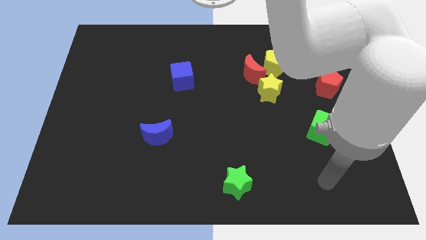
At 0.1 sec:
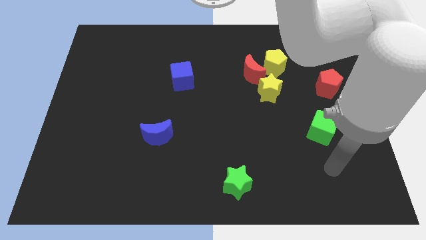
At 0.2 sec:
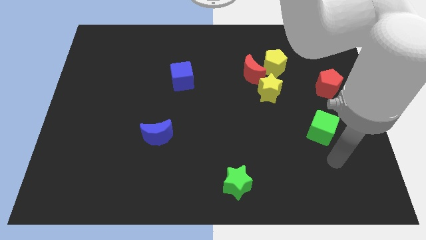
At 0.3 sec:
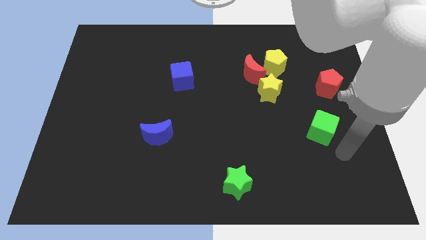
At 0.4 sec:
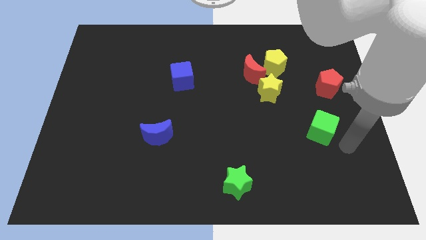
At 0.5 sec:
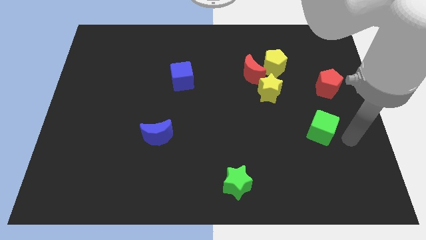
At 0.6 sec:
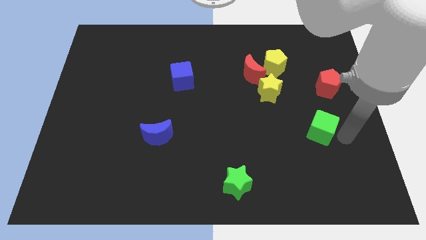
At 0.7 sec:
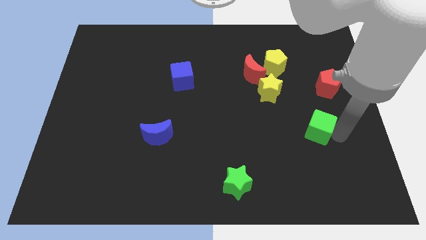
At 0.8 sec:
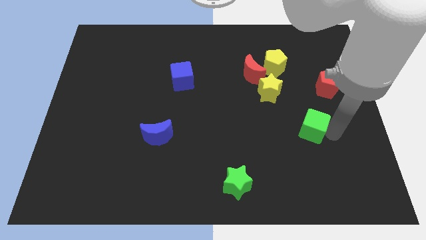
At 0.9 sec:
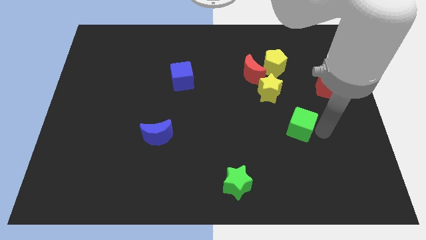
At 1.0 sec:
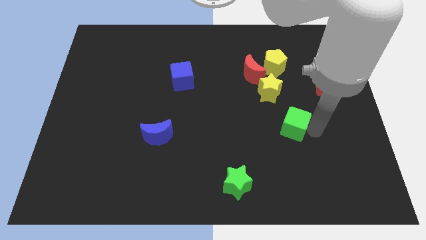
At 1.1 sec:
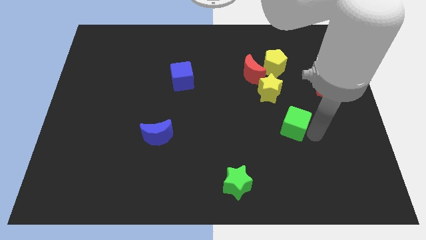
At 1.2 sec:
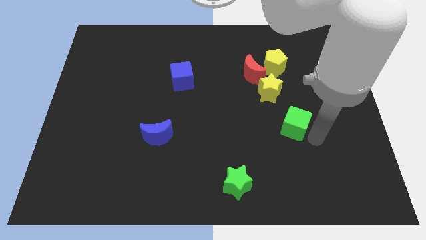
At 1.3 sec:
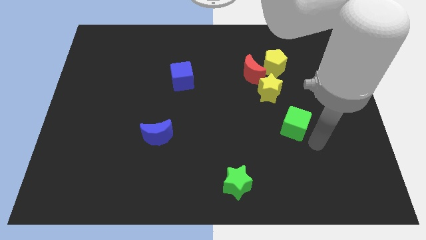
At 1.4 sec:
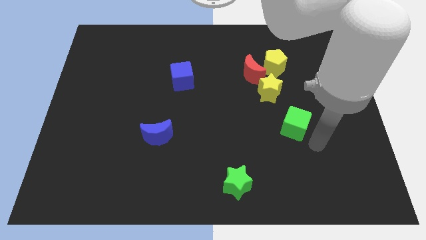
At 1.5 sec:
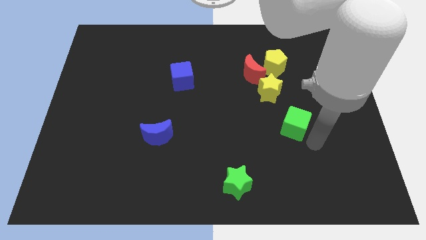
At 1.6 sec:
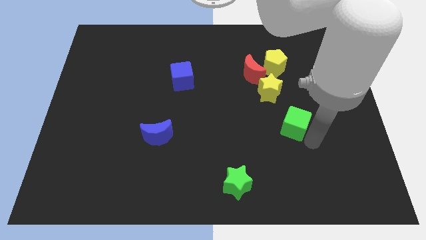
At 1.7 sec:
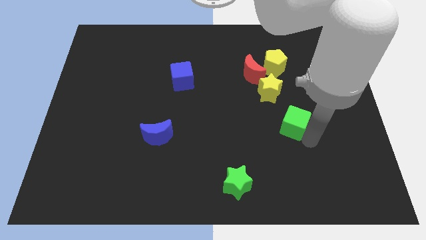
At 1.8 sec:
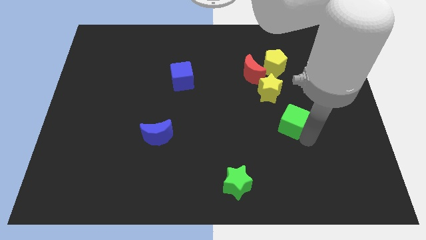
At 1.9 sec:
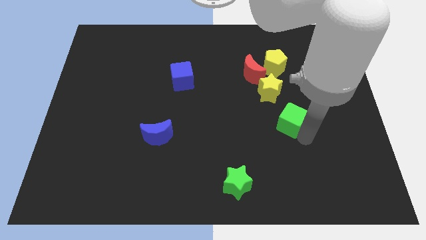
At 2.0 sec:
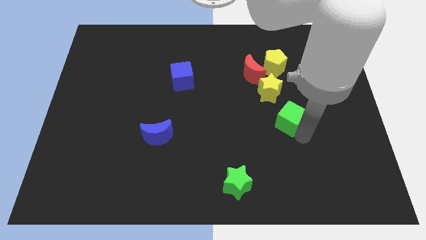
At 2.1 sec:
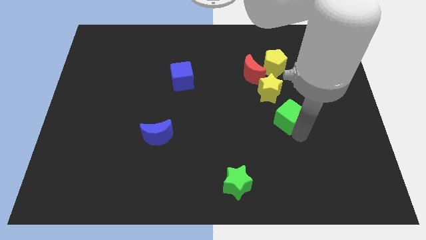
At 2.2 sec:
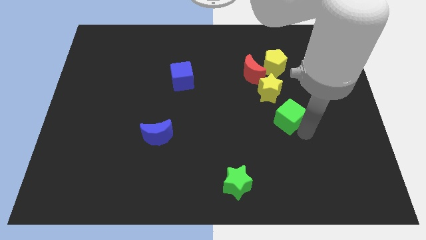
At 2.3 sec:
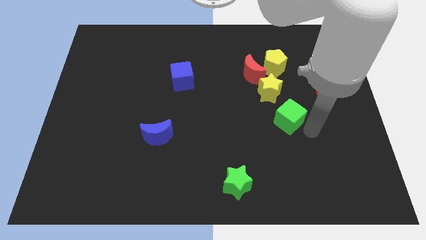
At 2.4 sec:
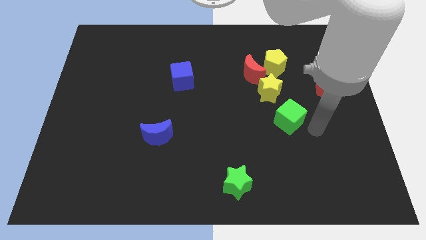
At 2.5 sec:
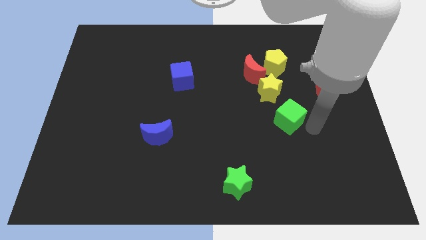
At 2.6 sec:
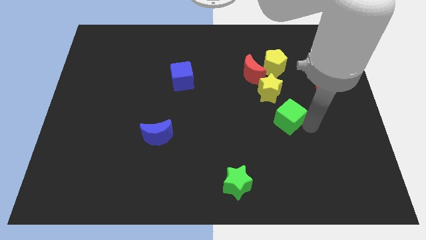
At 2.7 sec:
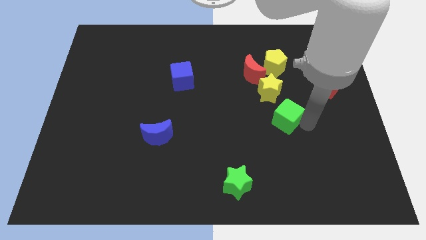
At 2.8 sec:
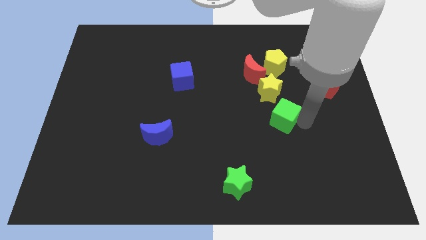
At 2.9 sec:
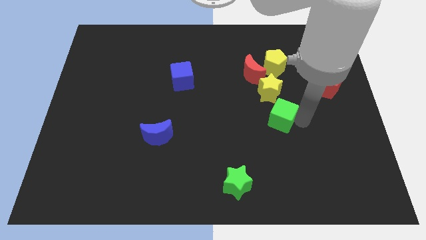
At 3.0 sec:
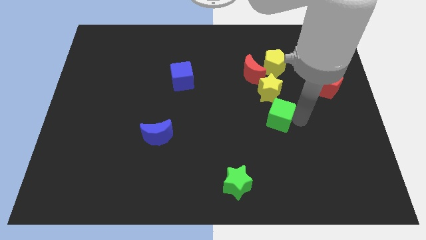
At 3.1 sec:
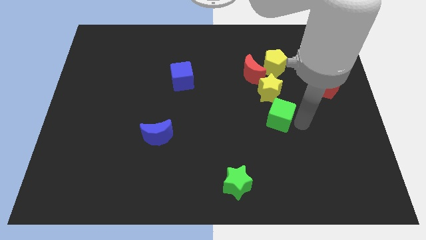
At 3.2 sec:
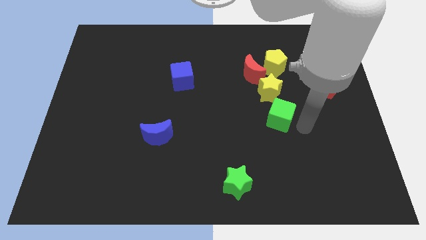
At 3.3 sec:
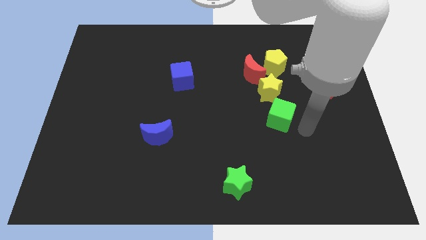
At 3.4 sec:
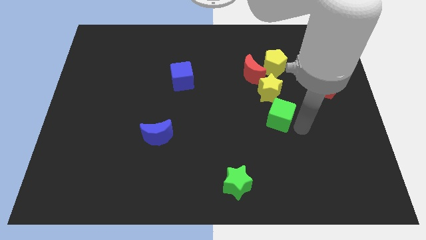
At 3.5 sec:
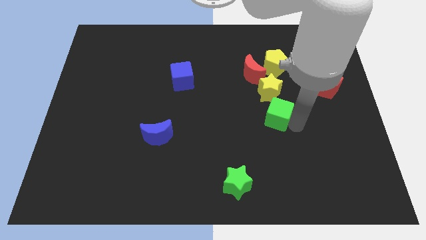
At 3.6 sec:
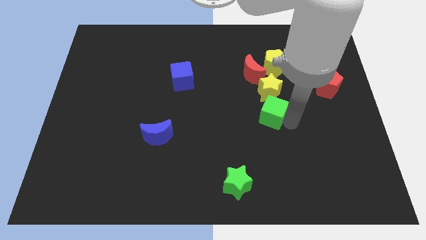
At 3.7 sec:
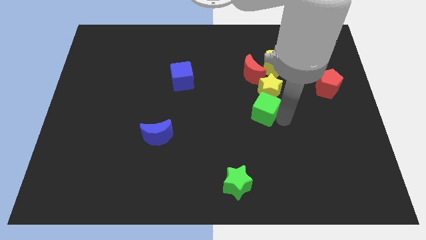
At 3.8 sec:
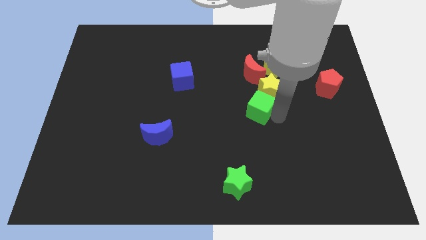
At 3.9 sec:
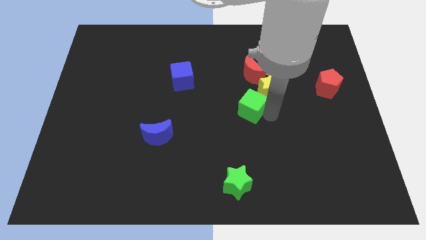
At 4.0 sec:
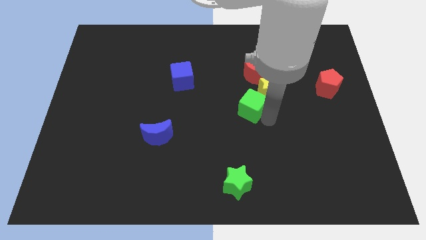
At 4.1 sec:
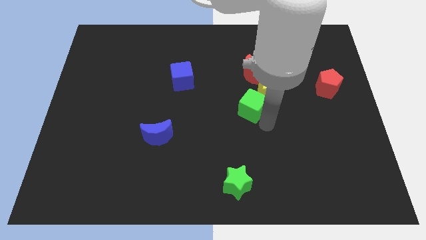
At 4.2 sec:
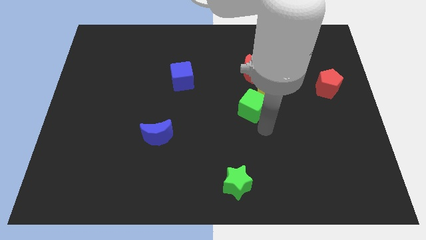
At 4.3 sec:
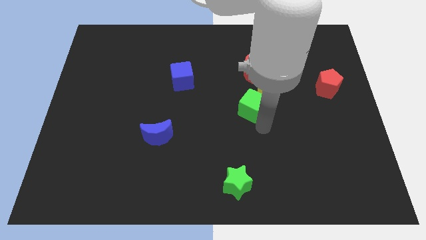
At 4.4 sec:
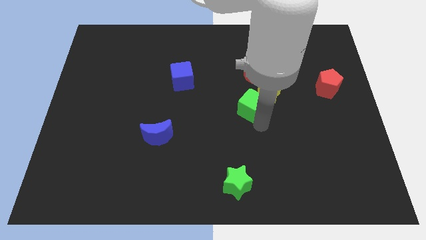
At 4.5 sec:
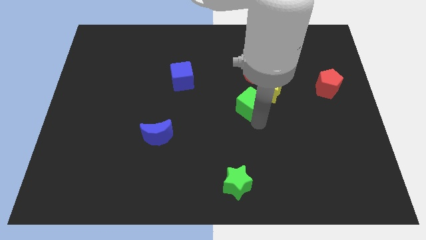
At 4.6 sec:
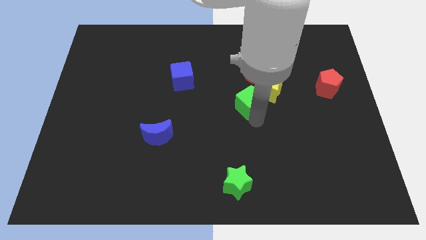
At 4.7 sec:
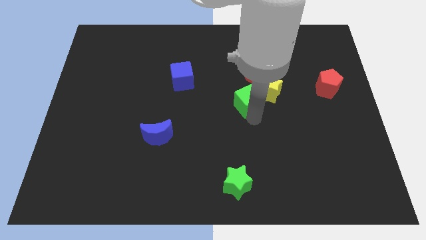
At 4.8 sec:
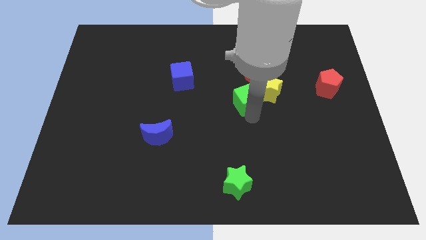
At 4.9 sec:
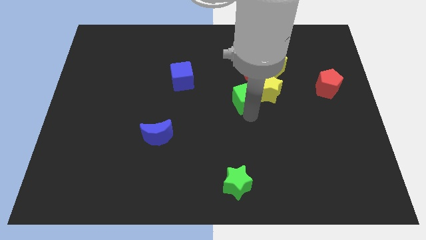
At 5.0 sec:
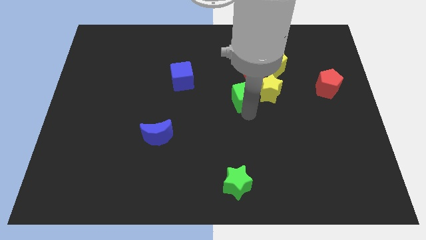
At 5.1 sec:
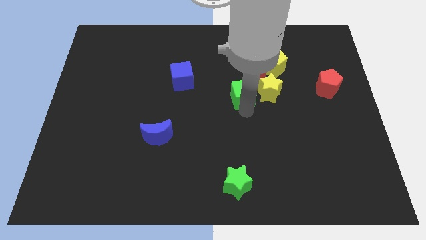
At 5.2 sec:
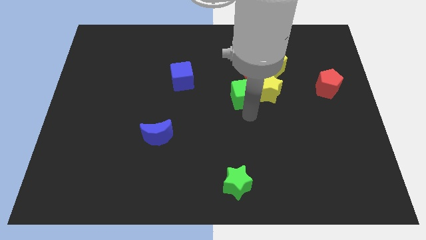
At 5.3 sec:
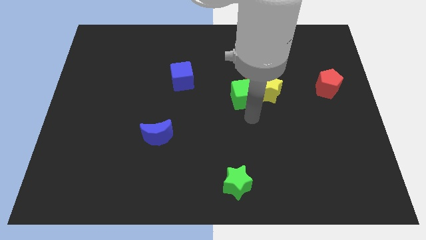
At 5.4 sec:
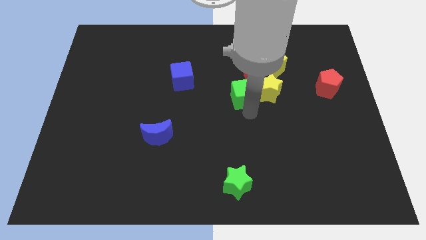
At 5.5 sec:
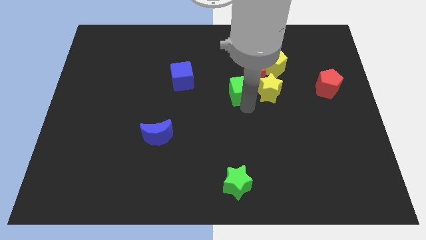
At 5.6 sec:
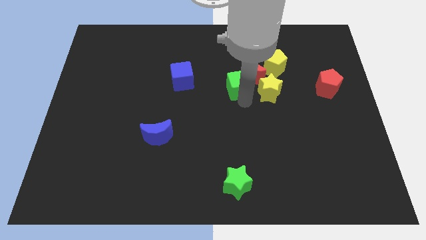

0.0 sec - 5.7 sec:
slide the green cube diagonally up and to the left

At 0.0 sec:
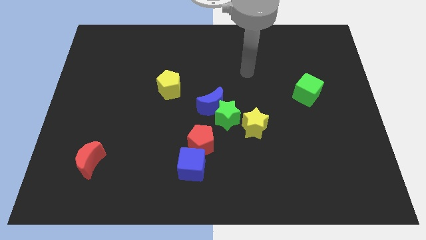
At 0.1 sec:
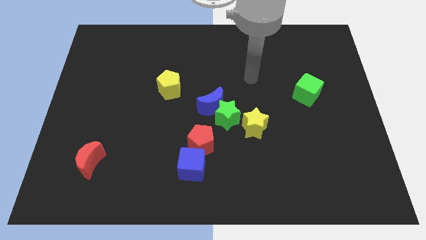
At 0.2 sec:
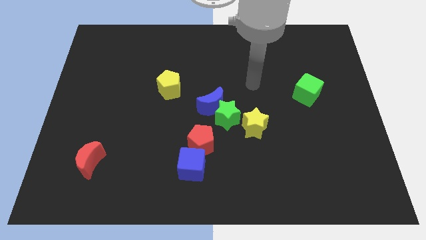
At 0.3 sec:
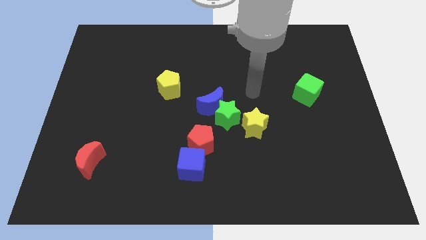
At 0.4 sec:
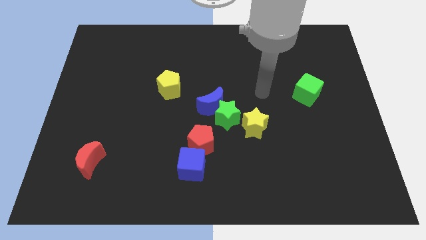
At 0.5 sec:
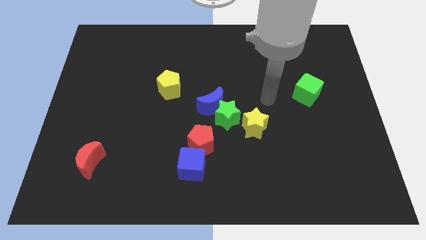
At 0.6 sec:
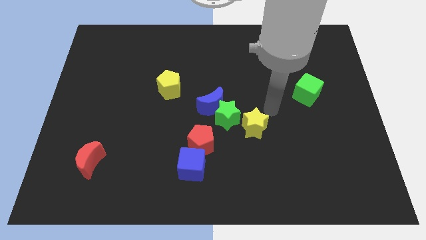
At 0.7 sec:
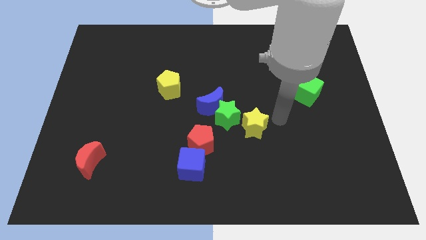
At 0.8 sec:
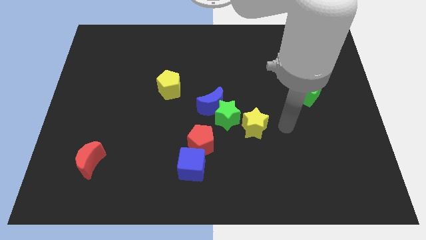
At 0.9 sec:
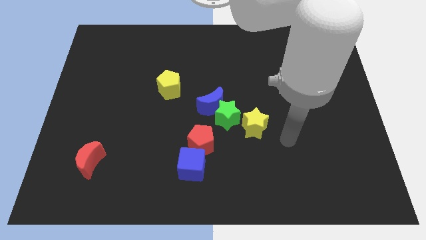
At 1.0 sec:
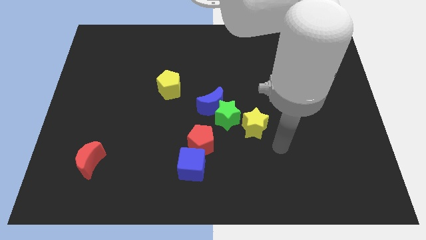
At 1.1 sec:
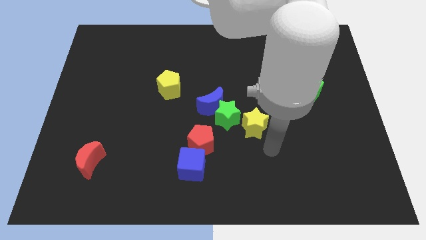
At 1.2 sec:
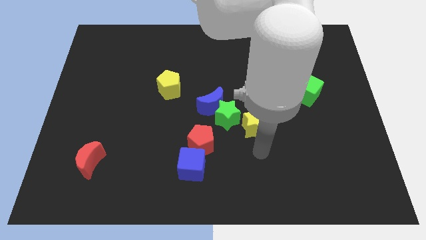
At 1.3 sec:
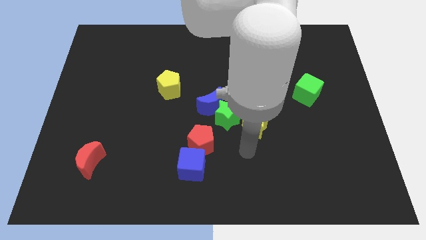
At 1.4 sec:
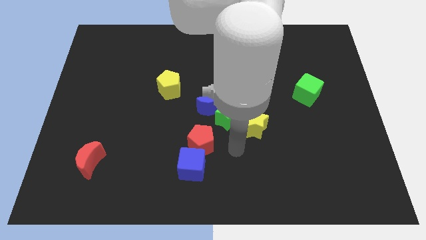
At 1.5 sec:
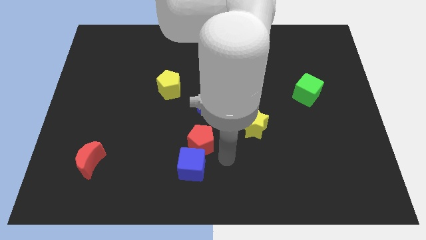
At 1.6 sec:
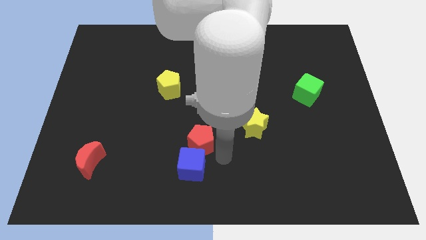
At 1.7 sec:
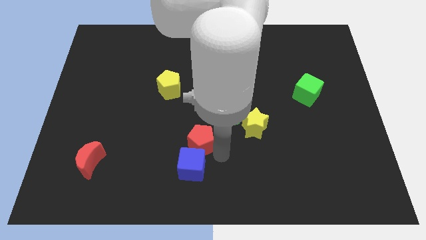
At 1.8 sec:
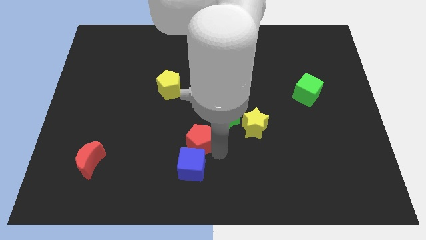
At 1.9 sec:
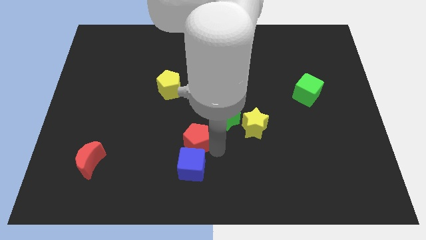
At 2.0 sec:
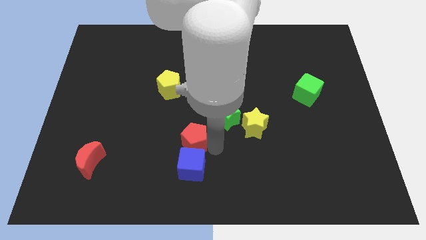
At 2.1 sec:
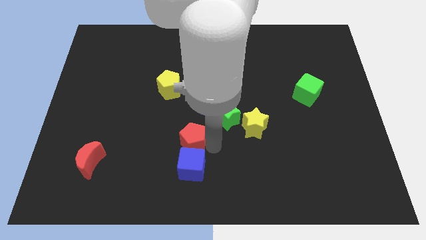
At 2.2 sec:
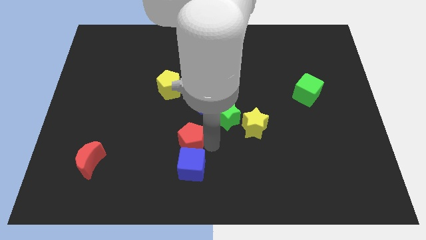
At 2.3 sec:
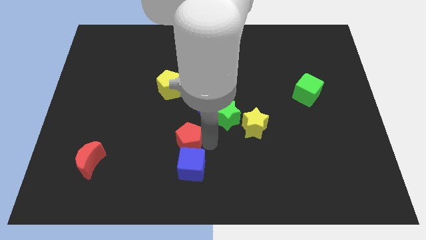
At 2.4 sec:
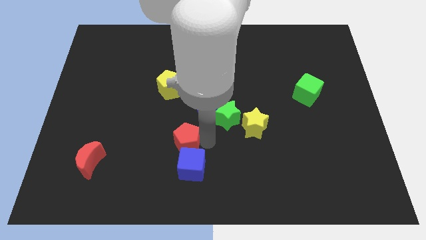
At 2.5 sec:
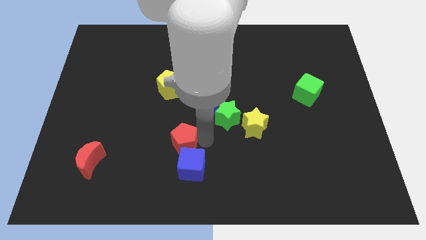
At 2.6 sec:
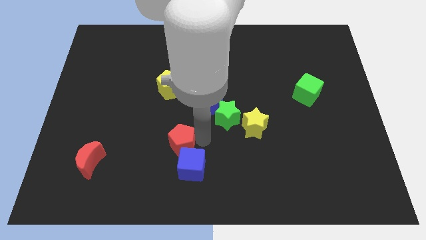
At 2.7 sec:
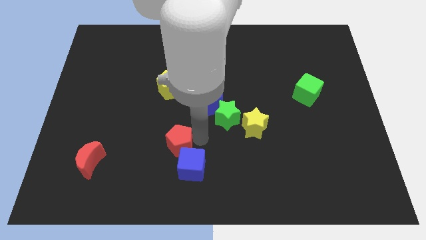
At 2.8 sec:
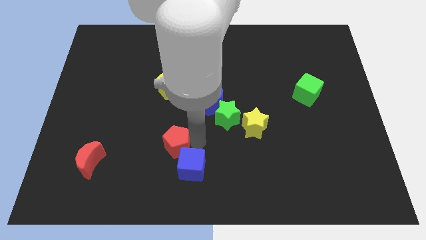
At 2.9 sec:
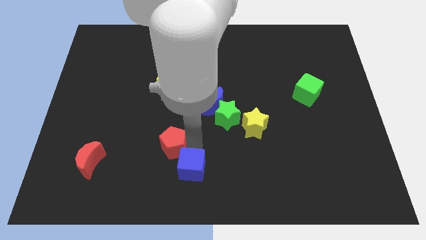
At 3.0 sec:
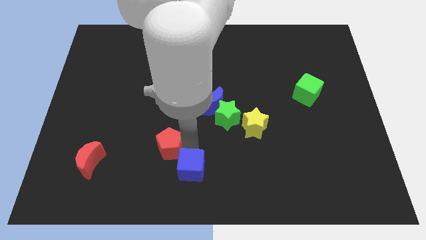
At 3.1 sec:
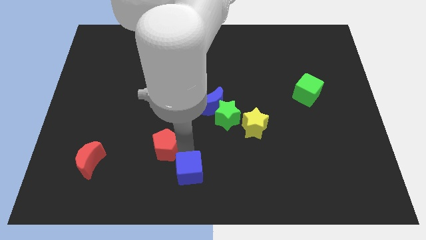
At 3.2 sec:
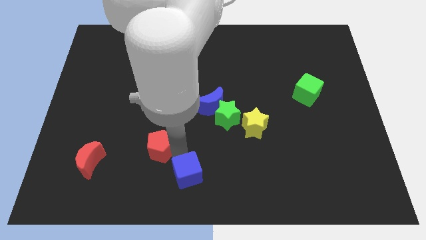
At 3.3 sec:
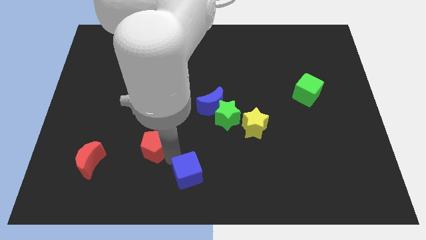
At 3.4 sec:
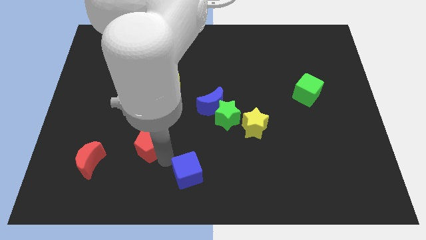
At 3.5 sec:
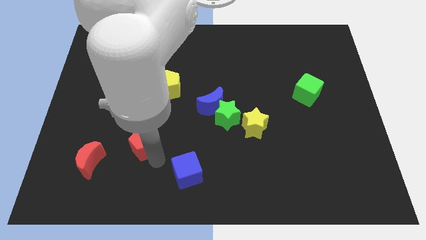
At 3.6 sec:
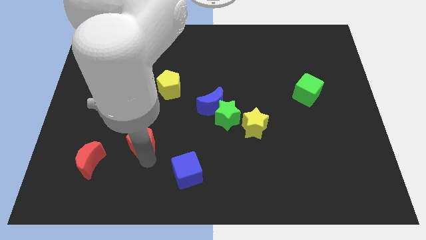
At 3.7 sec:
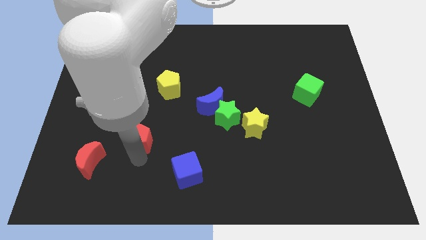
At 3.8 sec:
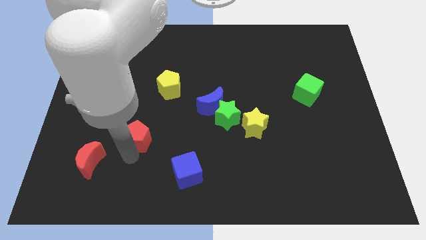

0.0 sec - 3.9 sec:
slightly push the red pentagon diagonally upwards and left
